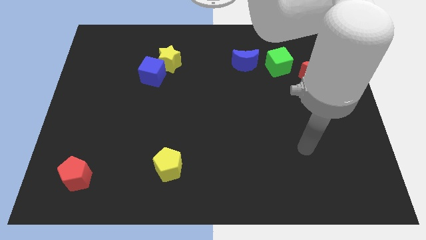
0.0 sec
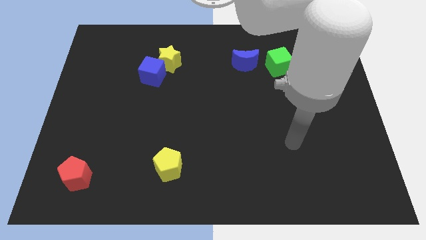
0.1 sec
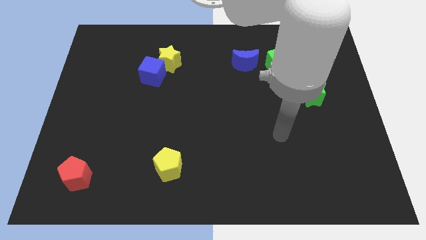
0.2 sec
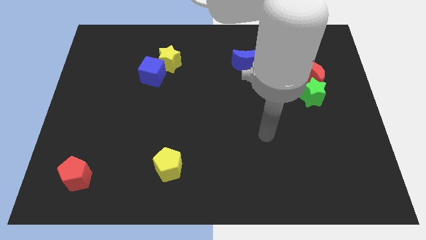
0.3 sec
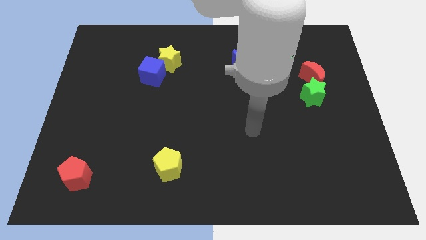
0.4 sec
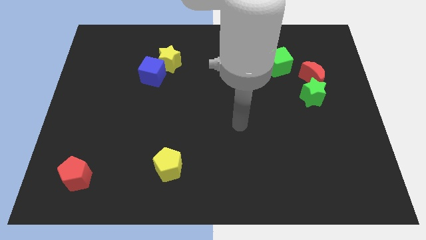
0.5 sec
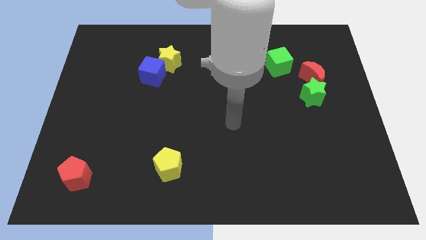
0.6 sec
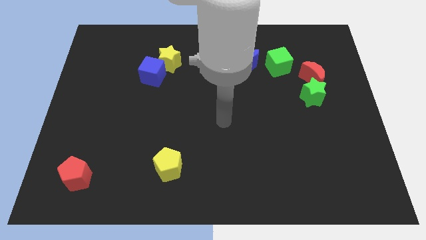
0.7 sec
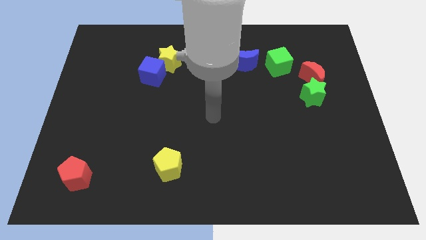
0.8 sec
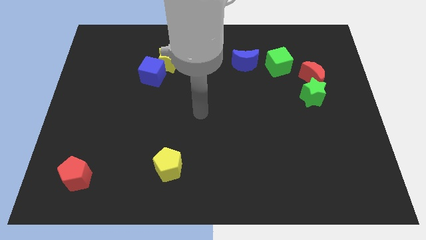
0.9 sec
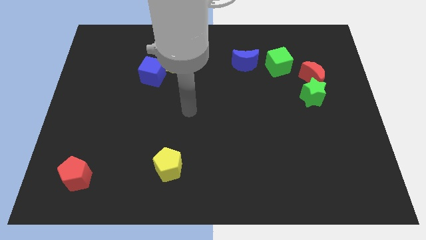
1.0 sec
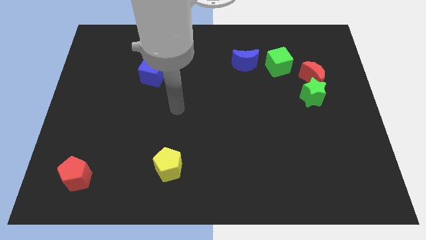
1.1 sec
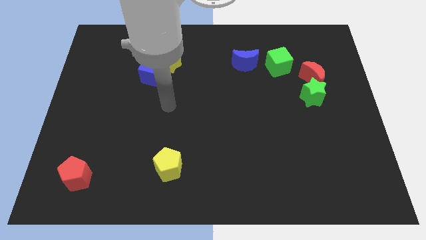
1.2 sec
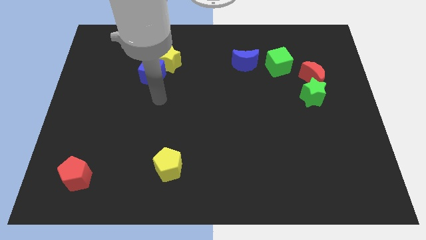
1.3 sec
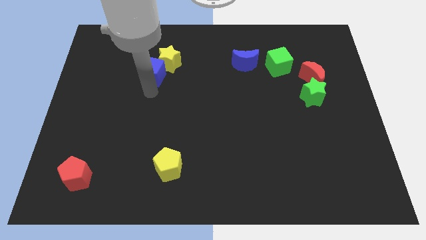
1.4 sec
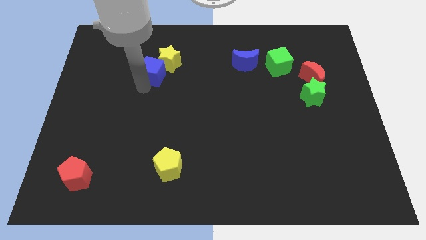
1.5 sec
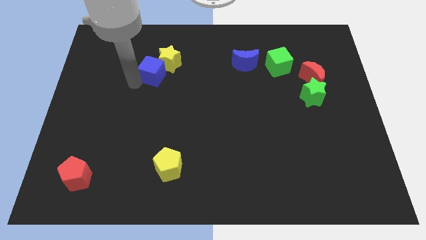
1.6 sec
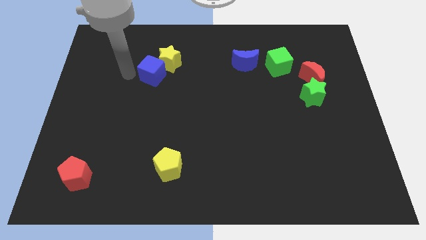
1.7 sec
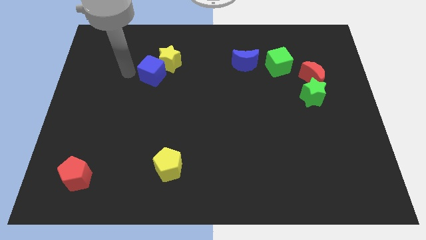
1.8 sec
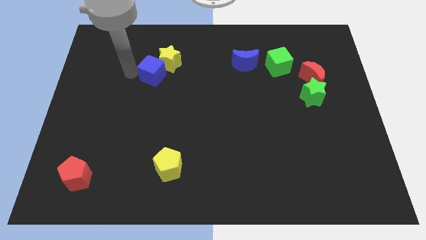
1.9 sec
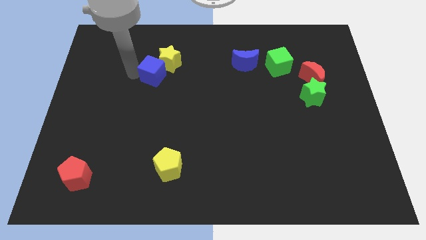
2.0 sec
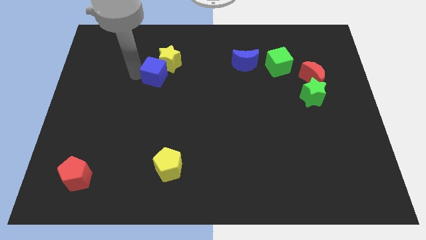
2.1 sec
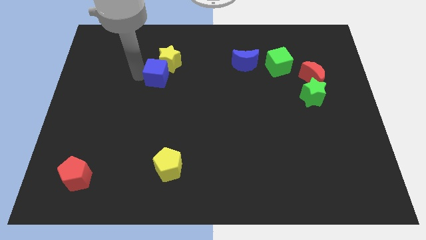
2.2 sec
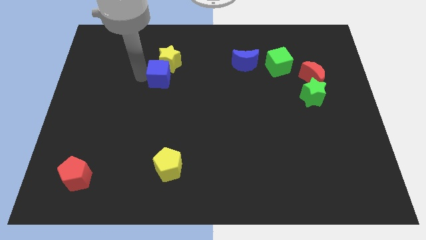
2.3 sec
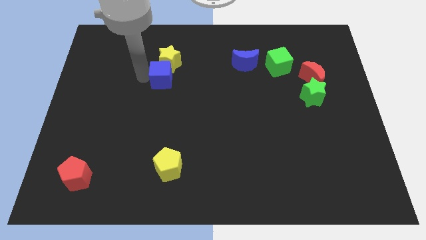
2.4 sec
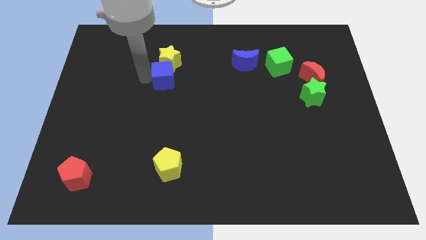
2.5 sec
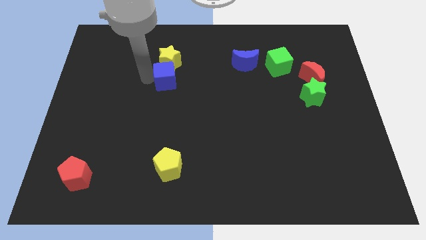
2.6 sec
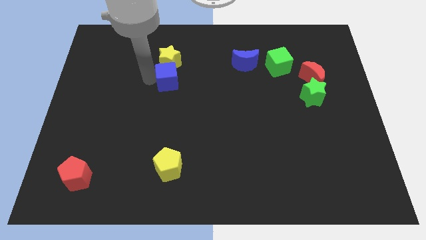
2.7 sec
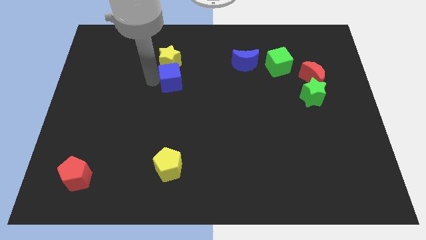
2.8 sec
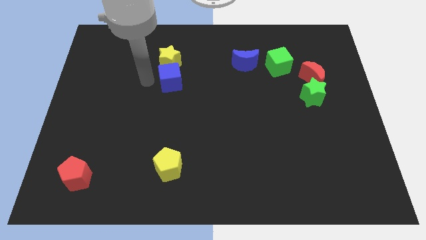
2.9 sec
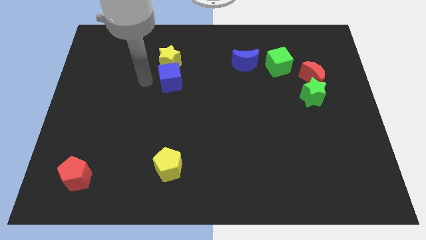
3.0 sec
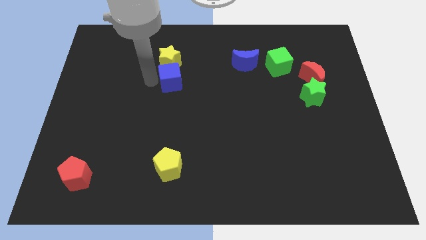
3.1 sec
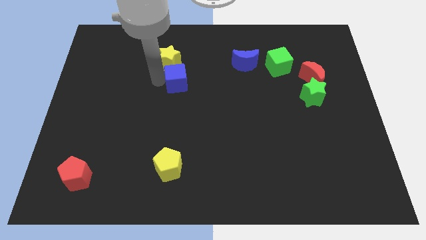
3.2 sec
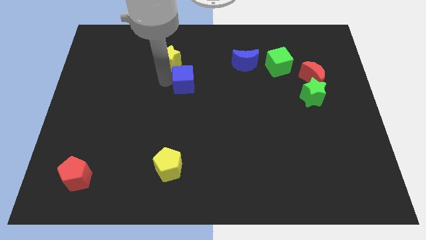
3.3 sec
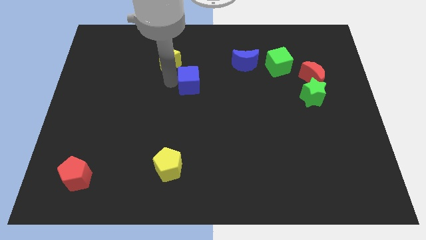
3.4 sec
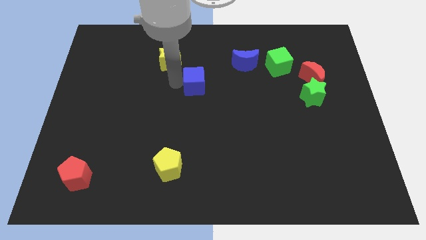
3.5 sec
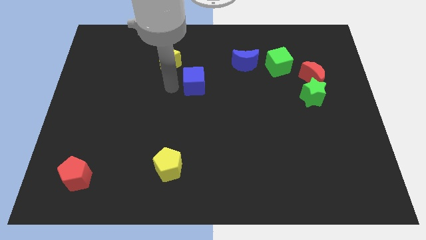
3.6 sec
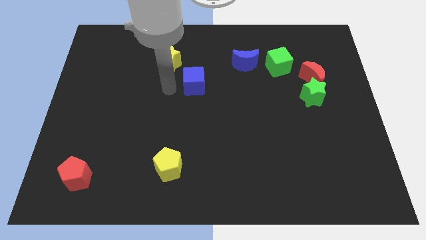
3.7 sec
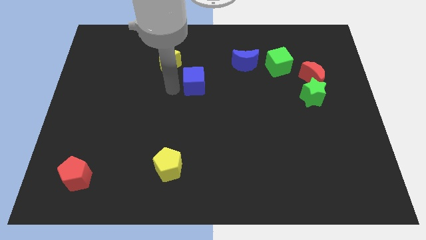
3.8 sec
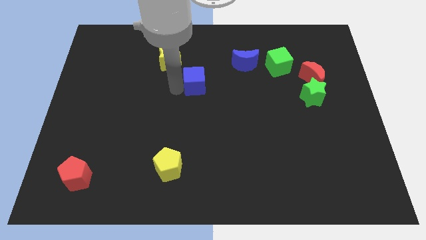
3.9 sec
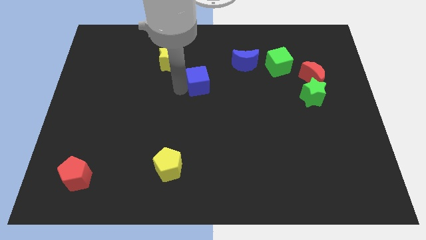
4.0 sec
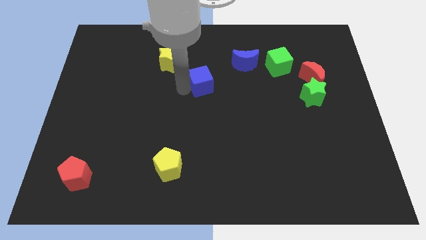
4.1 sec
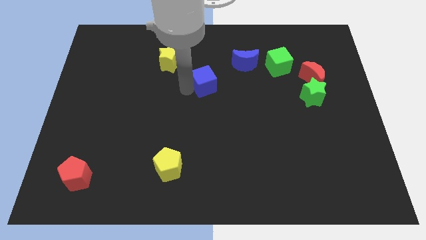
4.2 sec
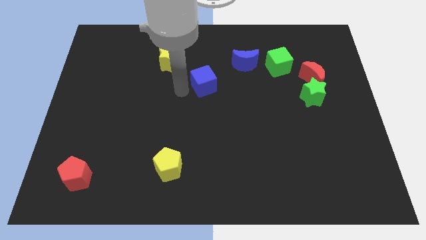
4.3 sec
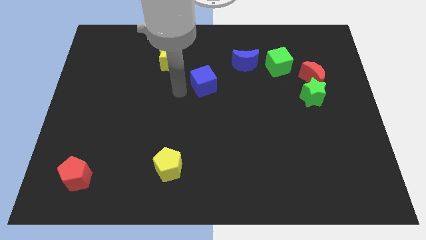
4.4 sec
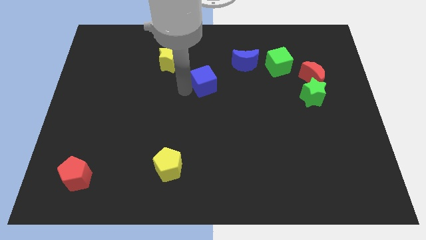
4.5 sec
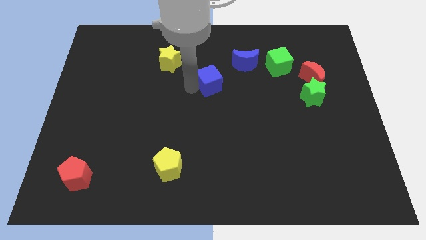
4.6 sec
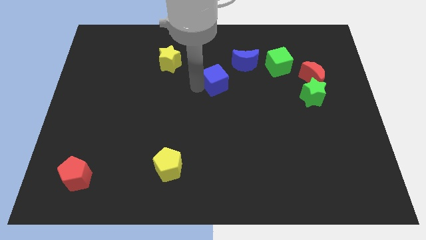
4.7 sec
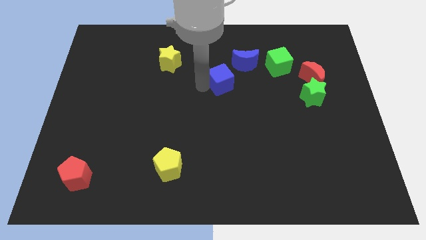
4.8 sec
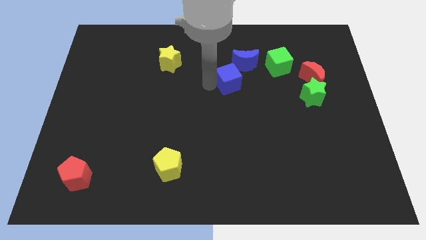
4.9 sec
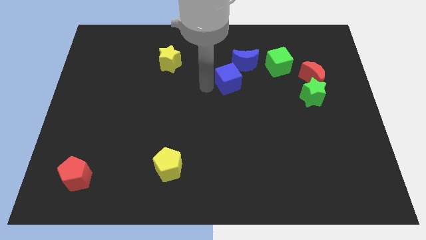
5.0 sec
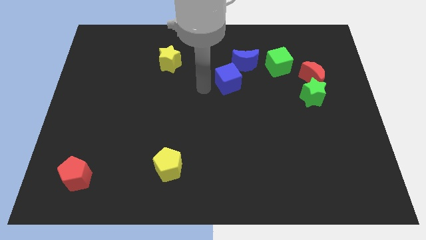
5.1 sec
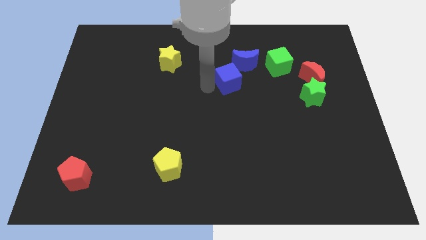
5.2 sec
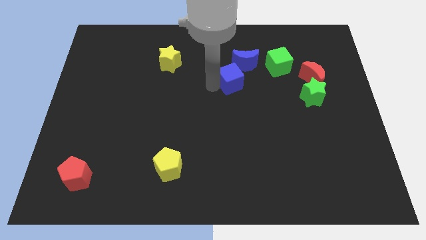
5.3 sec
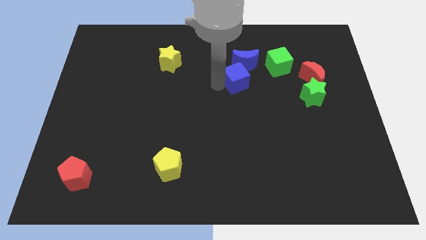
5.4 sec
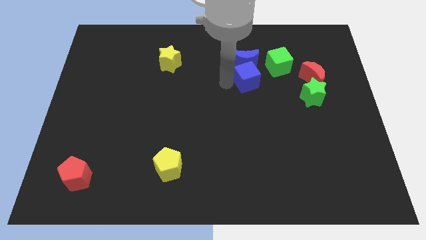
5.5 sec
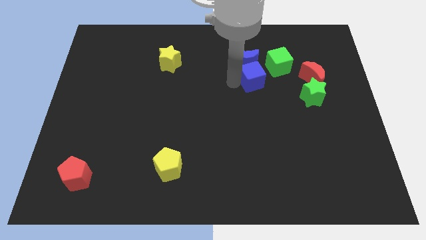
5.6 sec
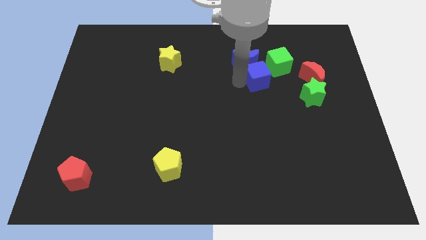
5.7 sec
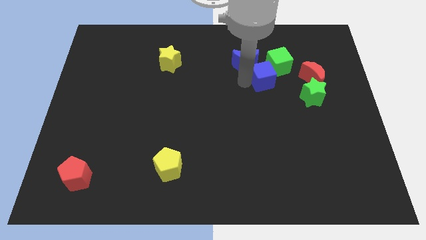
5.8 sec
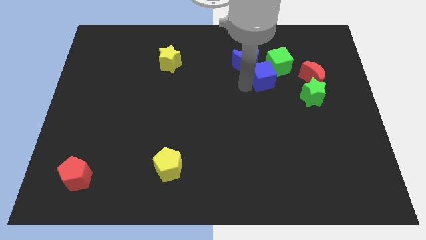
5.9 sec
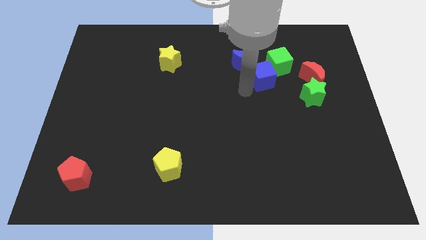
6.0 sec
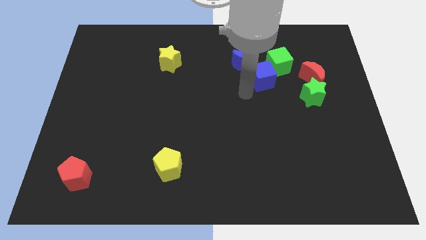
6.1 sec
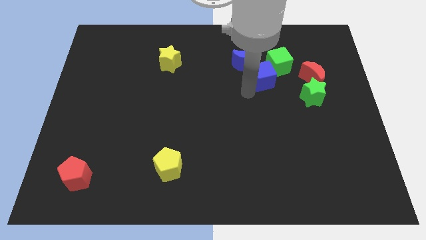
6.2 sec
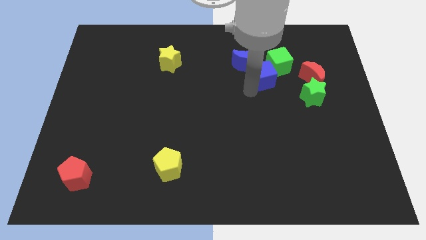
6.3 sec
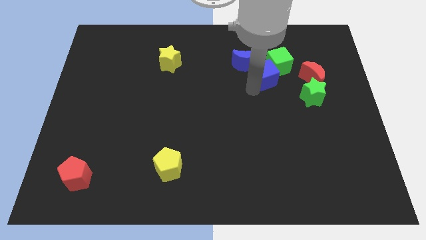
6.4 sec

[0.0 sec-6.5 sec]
slide the blue cube next to the green cube

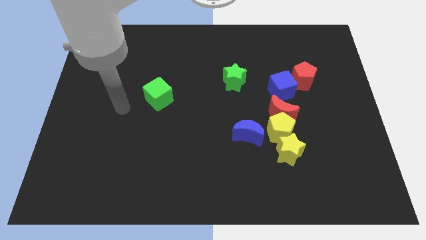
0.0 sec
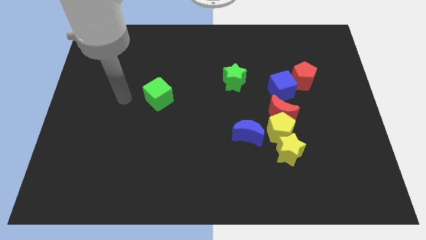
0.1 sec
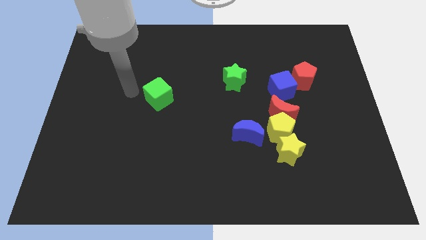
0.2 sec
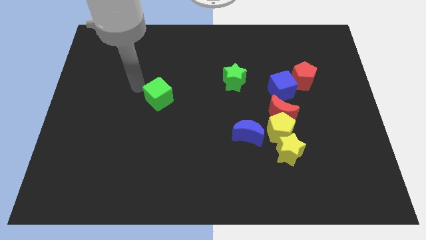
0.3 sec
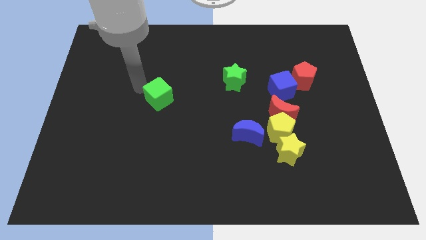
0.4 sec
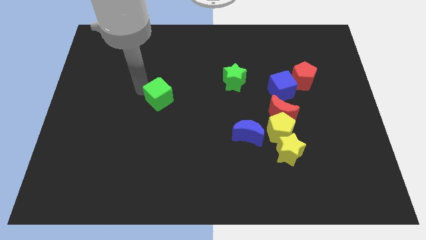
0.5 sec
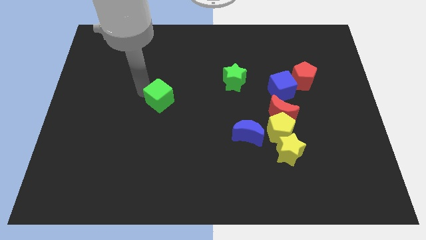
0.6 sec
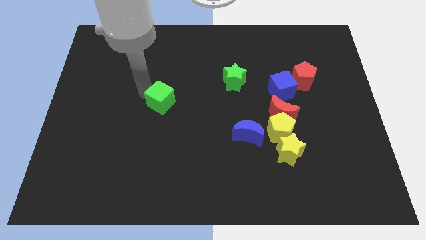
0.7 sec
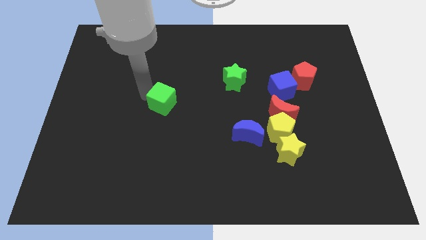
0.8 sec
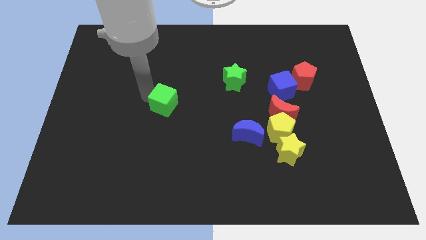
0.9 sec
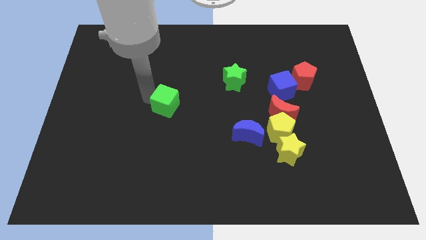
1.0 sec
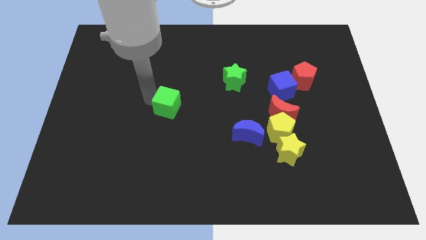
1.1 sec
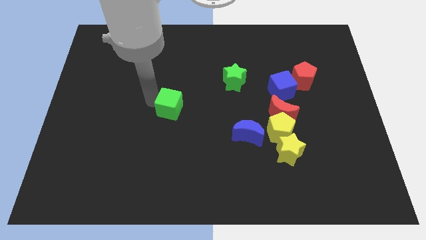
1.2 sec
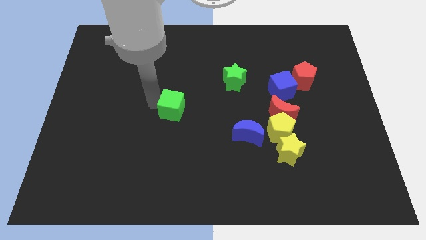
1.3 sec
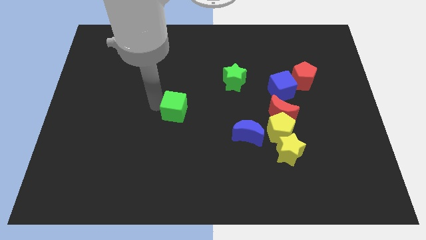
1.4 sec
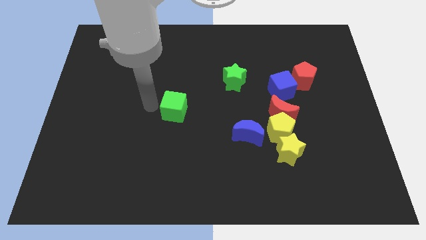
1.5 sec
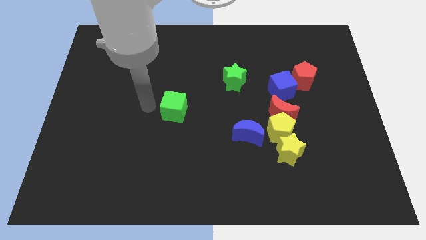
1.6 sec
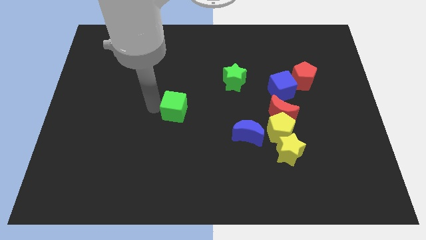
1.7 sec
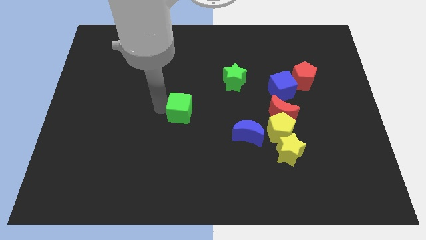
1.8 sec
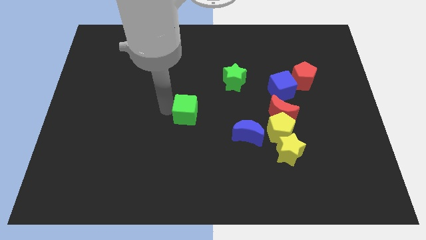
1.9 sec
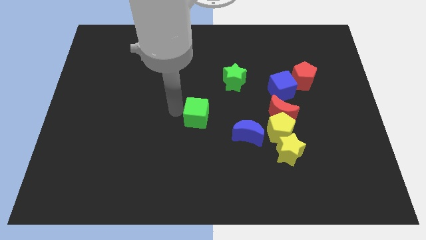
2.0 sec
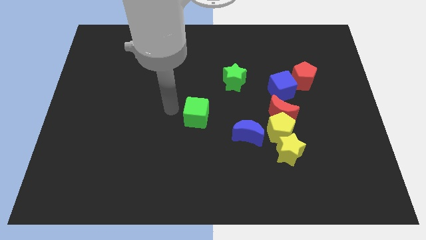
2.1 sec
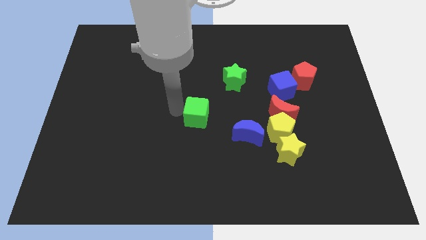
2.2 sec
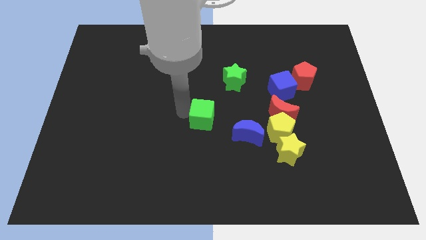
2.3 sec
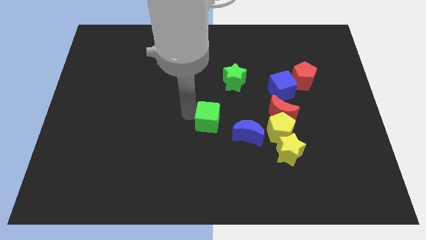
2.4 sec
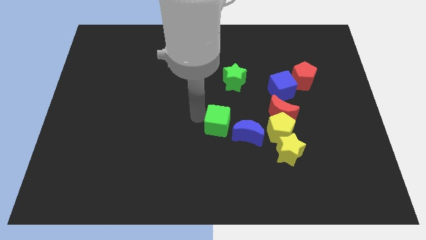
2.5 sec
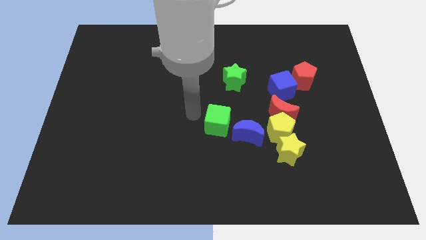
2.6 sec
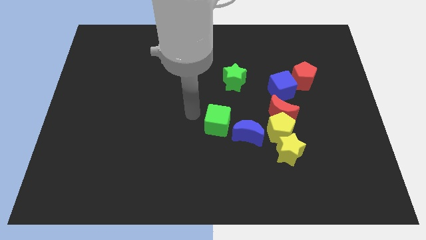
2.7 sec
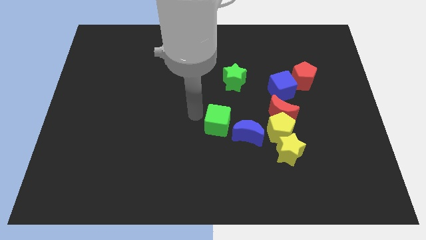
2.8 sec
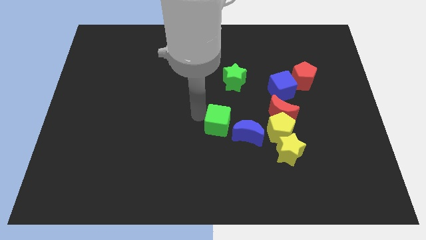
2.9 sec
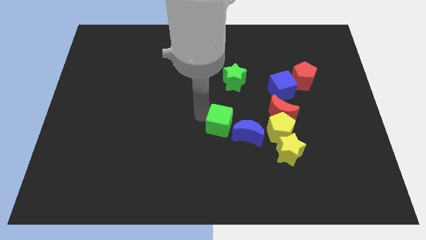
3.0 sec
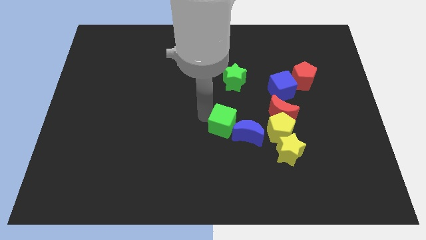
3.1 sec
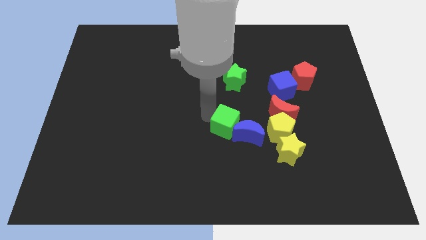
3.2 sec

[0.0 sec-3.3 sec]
slide the green cube close to the blue moon
